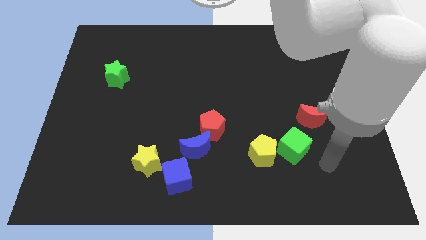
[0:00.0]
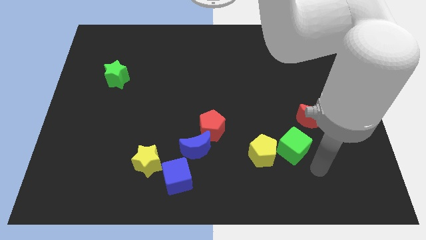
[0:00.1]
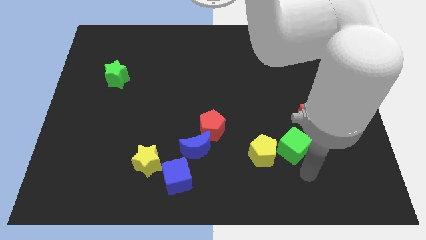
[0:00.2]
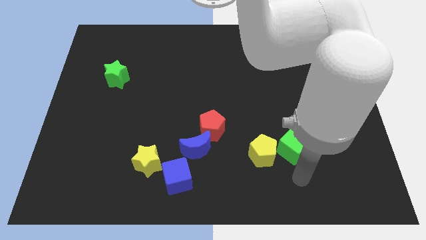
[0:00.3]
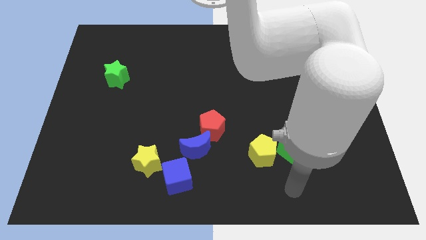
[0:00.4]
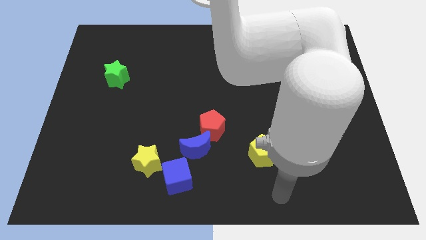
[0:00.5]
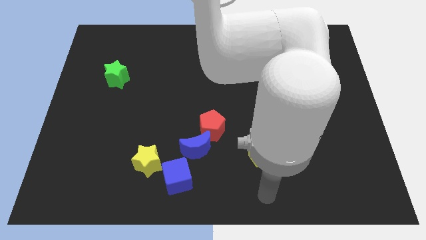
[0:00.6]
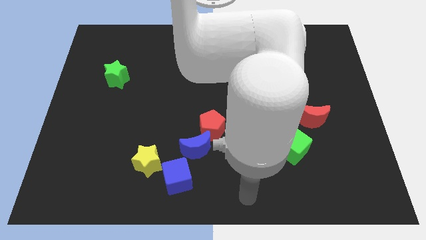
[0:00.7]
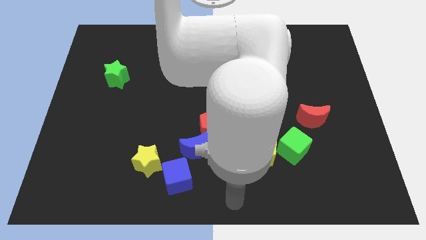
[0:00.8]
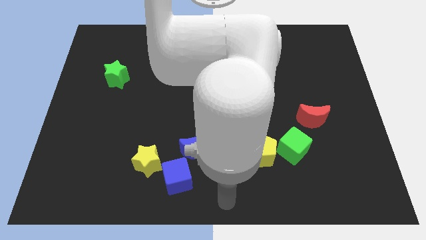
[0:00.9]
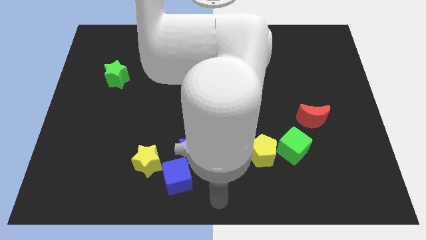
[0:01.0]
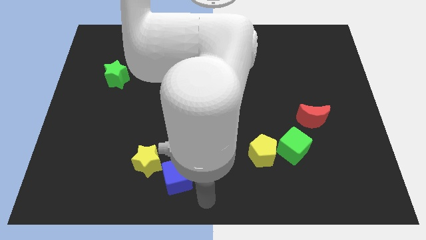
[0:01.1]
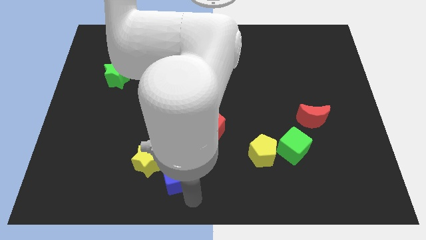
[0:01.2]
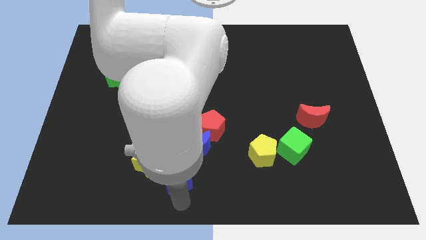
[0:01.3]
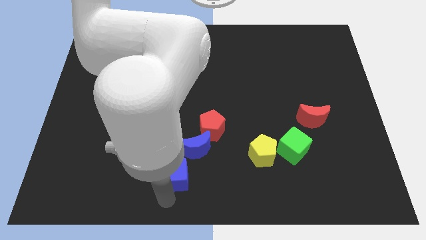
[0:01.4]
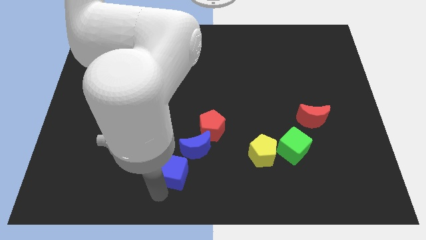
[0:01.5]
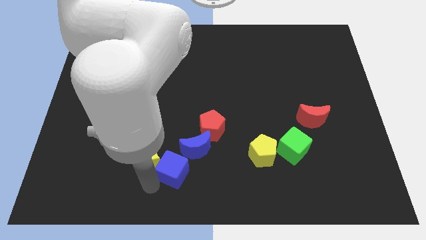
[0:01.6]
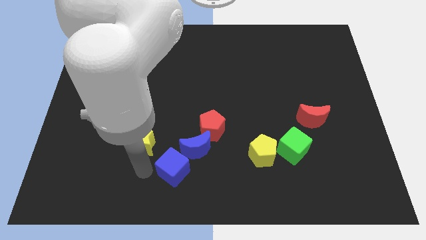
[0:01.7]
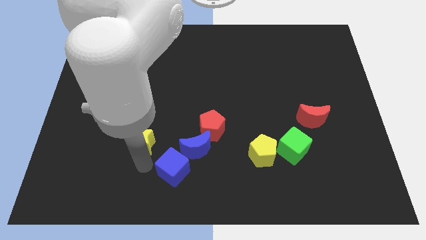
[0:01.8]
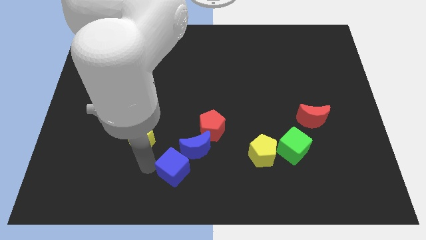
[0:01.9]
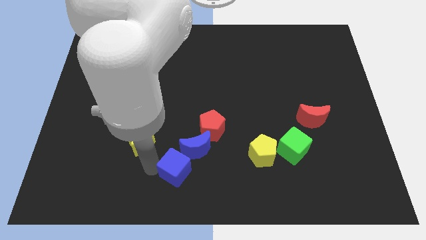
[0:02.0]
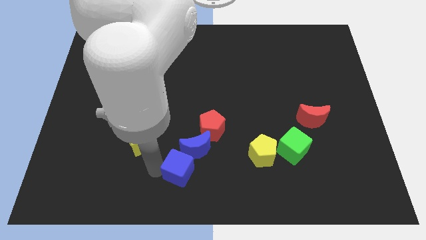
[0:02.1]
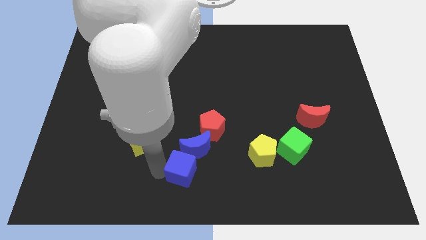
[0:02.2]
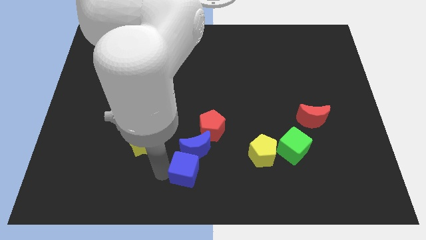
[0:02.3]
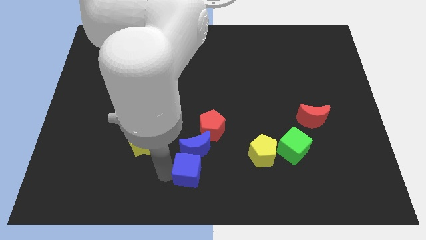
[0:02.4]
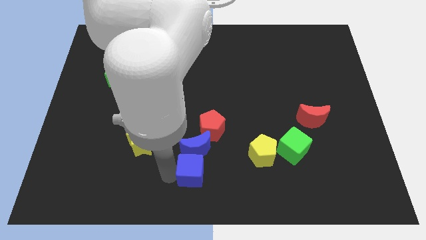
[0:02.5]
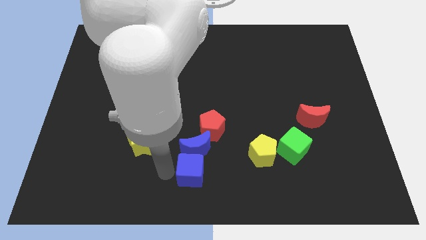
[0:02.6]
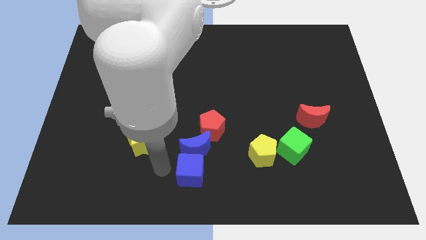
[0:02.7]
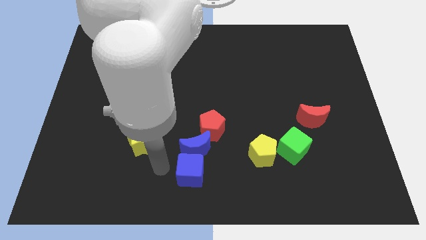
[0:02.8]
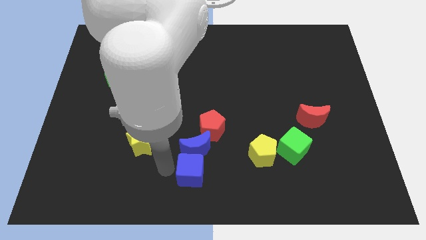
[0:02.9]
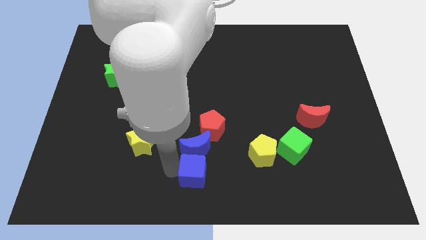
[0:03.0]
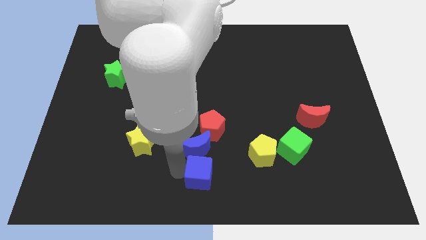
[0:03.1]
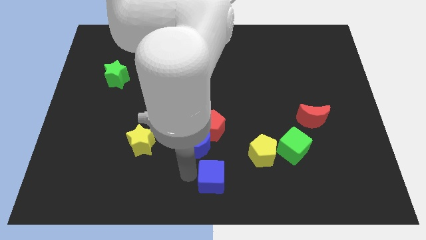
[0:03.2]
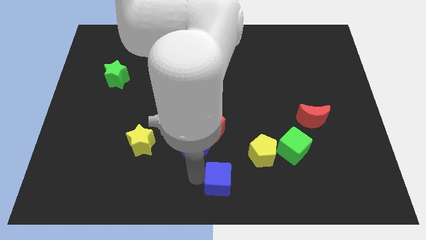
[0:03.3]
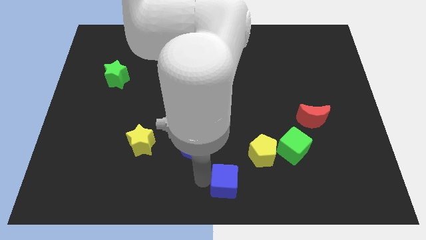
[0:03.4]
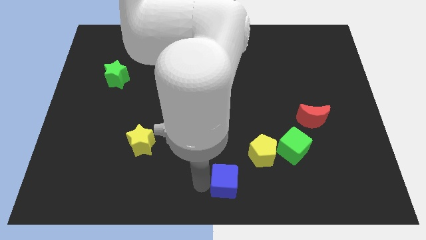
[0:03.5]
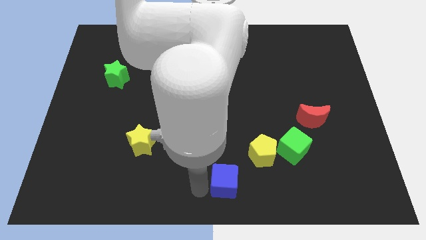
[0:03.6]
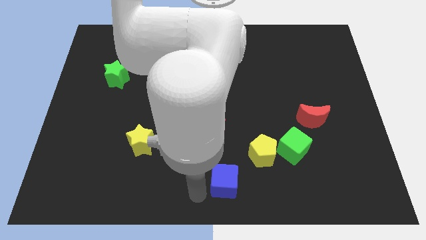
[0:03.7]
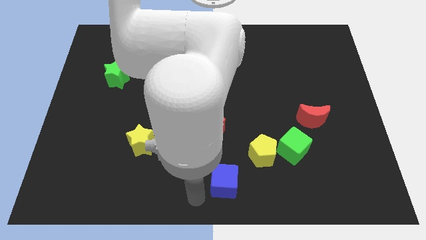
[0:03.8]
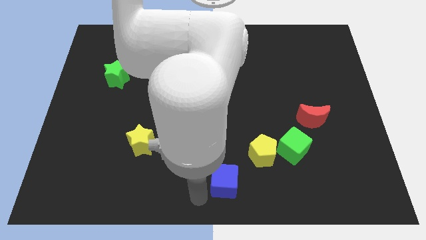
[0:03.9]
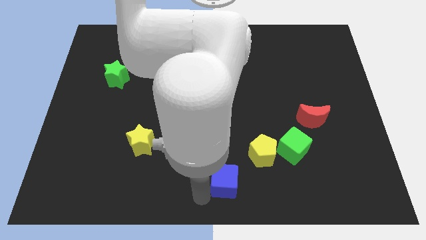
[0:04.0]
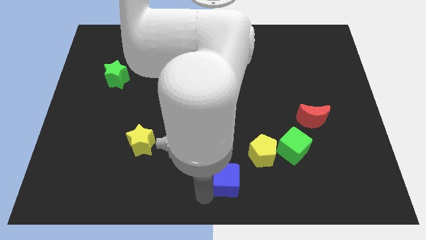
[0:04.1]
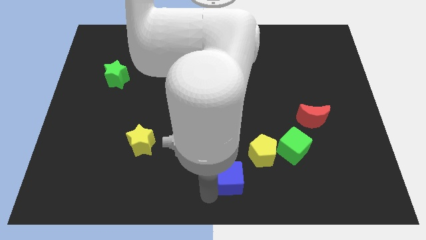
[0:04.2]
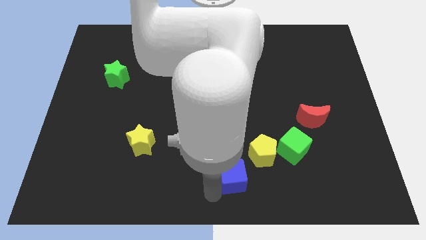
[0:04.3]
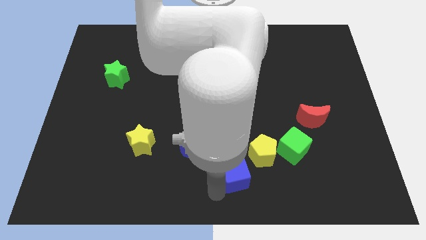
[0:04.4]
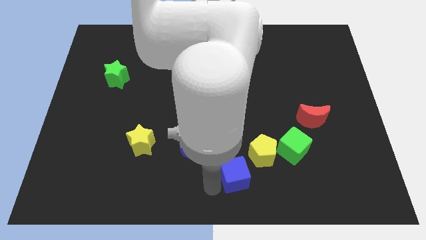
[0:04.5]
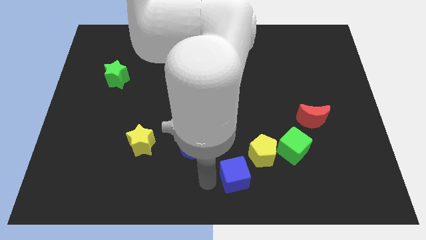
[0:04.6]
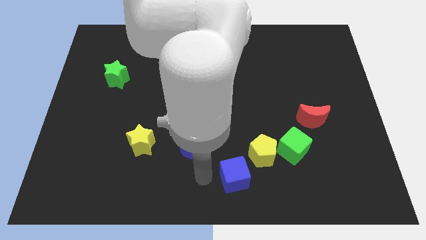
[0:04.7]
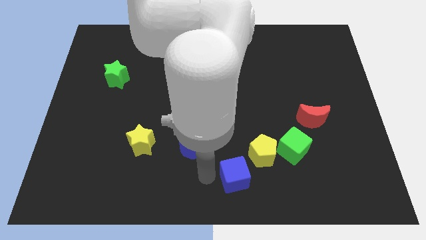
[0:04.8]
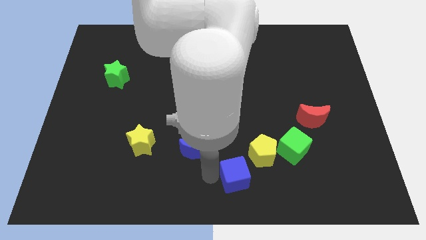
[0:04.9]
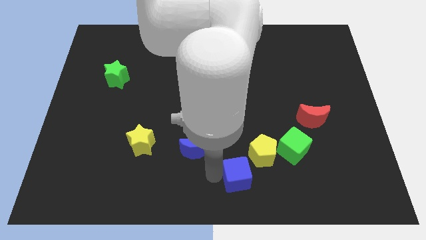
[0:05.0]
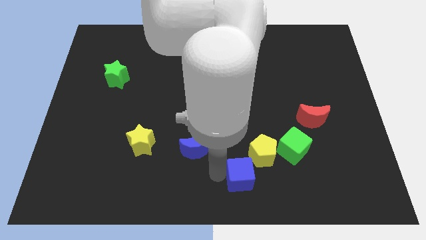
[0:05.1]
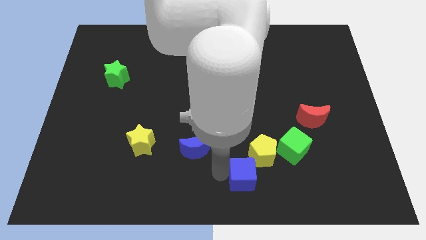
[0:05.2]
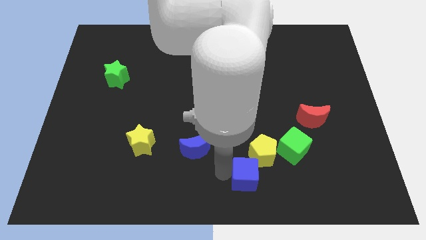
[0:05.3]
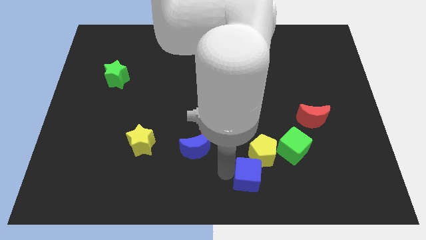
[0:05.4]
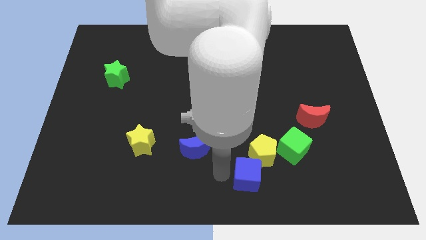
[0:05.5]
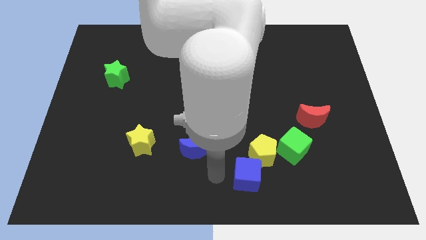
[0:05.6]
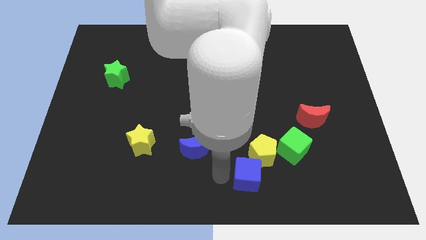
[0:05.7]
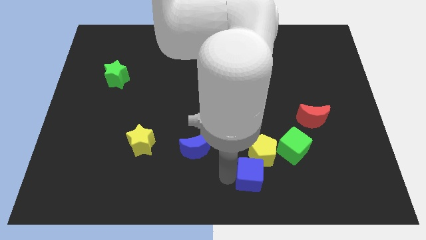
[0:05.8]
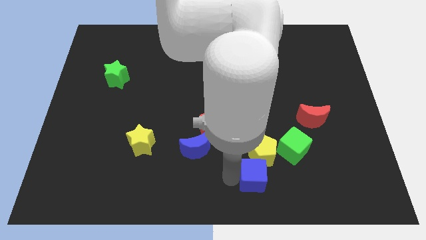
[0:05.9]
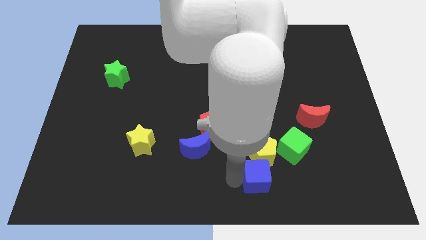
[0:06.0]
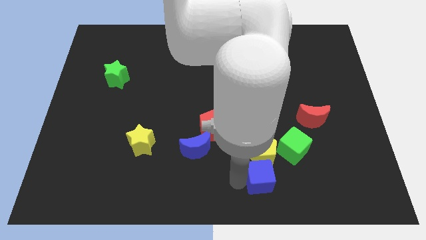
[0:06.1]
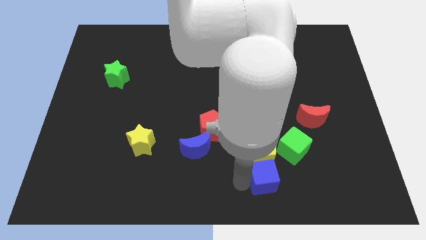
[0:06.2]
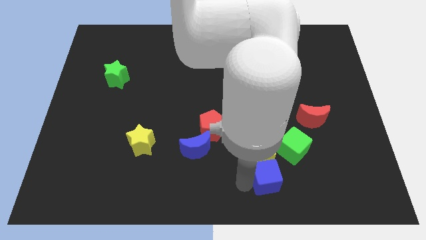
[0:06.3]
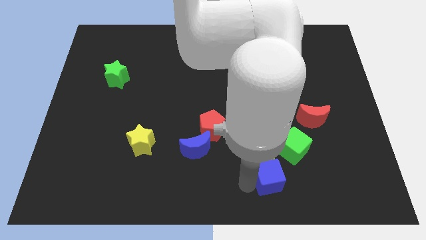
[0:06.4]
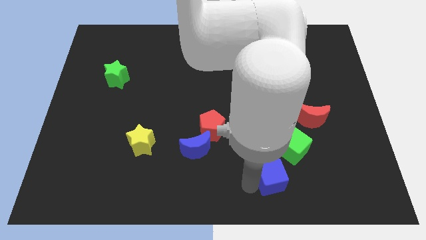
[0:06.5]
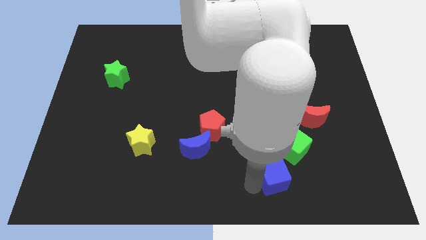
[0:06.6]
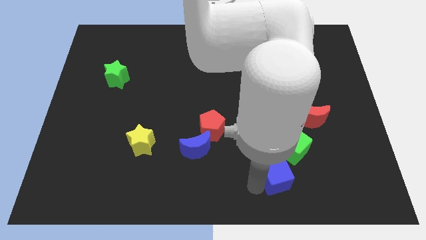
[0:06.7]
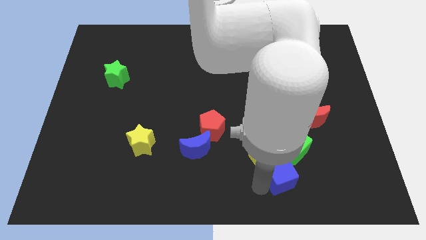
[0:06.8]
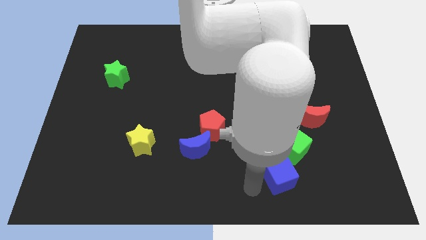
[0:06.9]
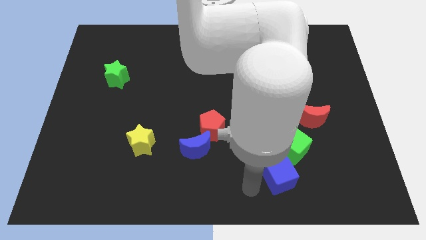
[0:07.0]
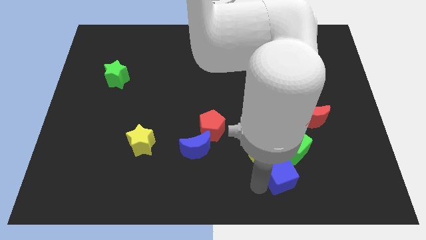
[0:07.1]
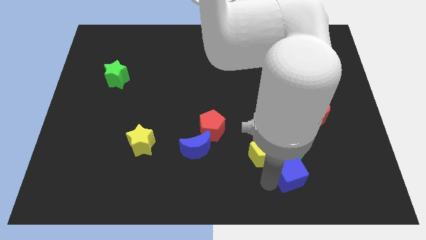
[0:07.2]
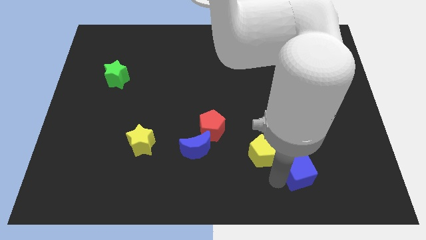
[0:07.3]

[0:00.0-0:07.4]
push the blue cube to the right of the yellow pentagon
